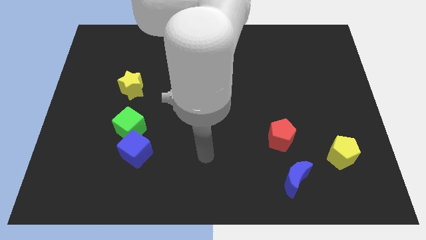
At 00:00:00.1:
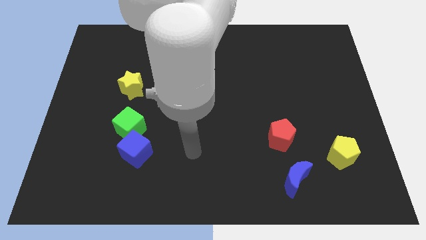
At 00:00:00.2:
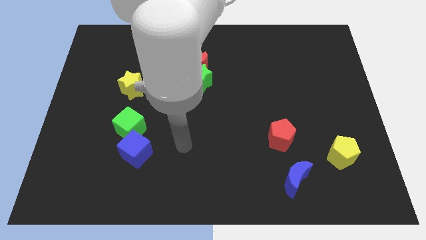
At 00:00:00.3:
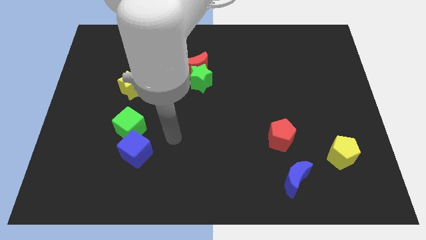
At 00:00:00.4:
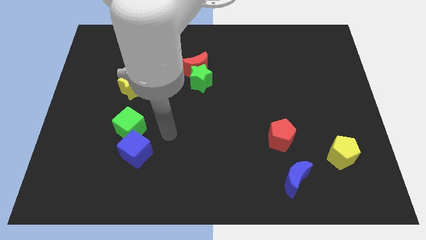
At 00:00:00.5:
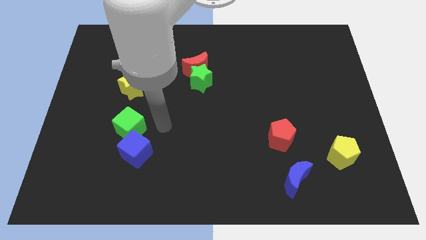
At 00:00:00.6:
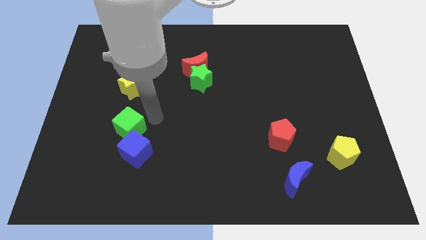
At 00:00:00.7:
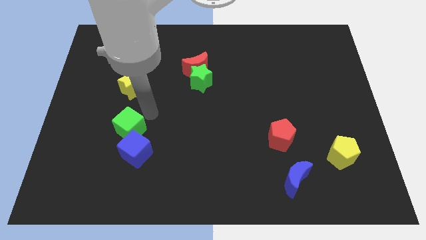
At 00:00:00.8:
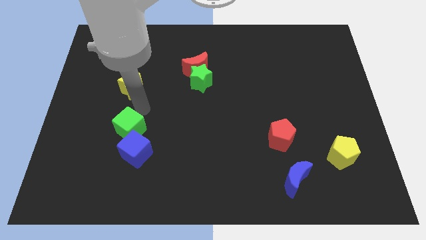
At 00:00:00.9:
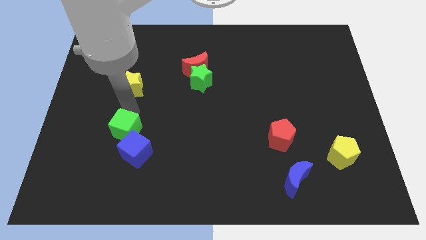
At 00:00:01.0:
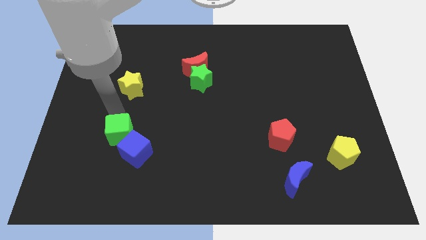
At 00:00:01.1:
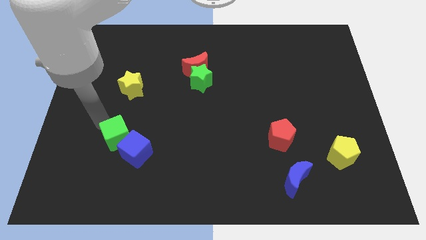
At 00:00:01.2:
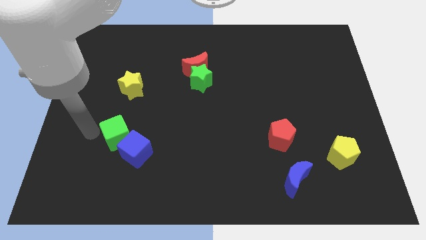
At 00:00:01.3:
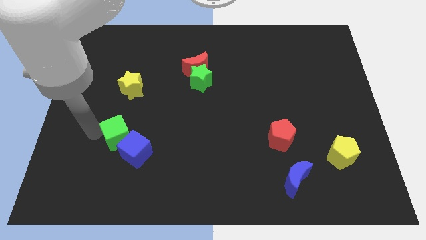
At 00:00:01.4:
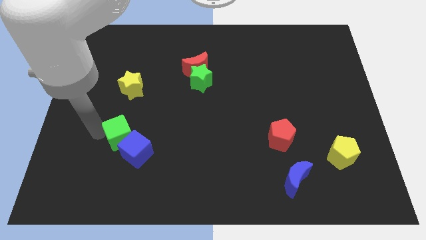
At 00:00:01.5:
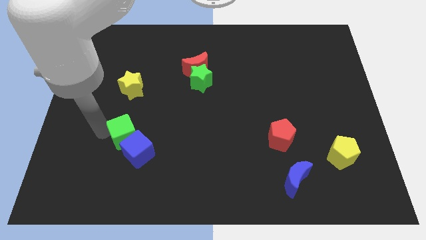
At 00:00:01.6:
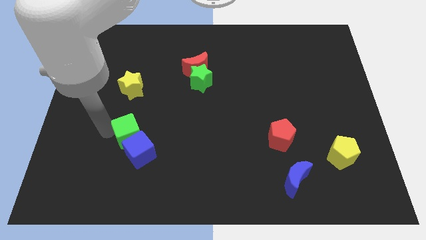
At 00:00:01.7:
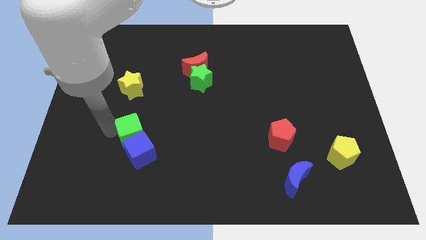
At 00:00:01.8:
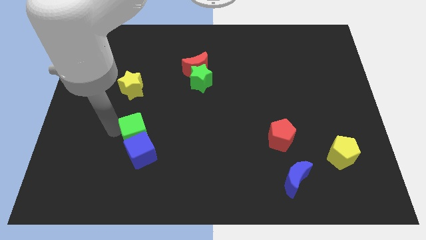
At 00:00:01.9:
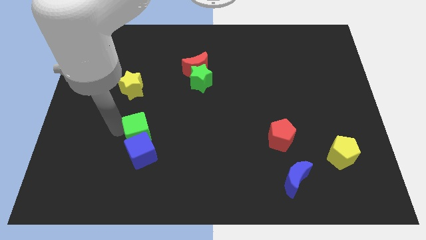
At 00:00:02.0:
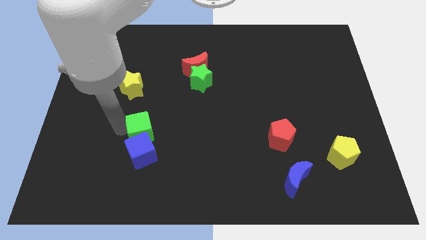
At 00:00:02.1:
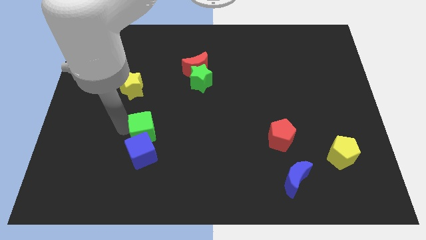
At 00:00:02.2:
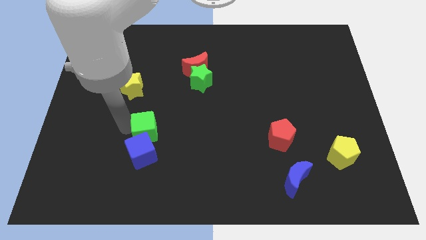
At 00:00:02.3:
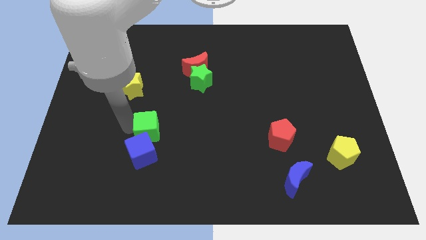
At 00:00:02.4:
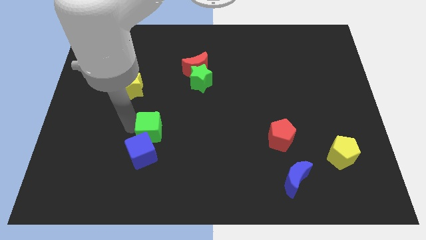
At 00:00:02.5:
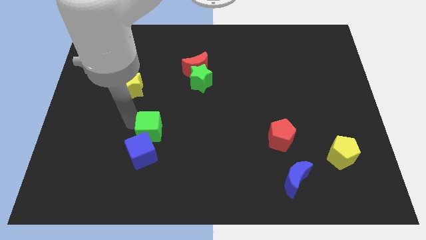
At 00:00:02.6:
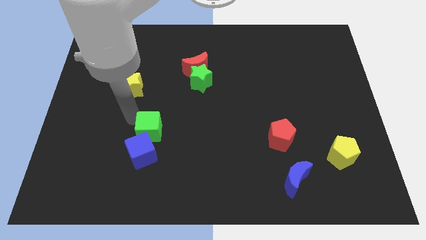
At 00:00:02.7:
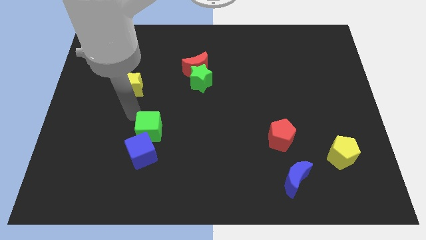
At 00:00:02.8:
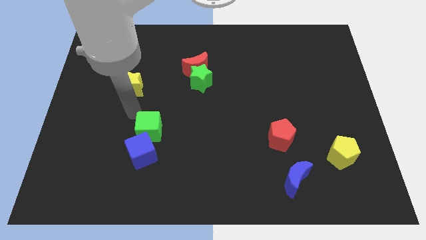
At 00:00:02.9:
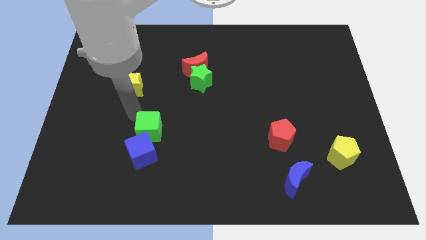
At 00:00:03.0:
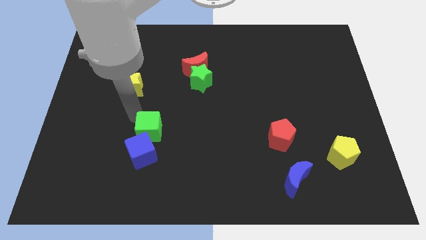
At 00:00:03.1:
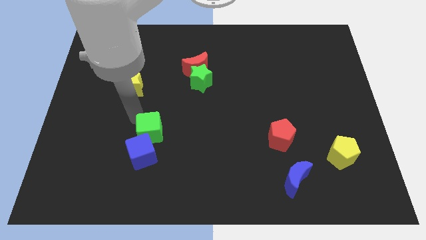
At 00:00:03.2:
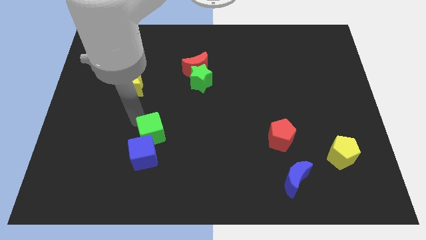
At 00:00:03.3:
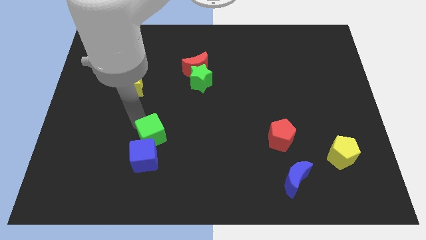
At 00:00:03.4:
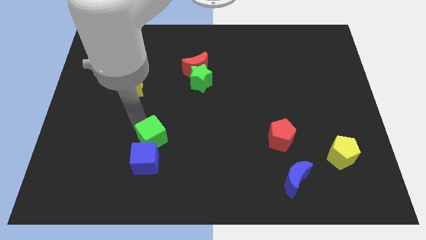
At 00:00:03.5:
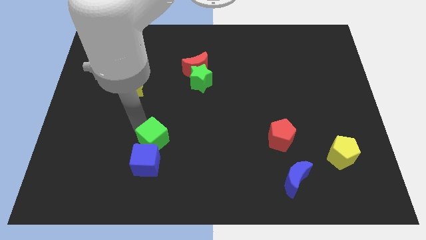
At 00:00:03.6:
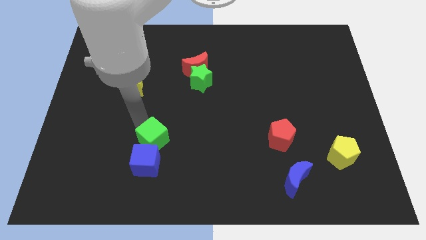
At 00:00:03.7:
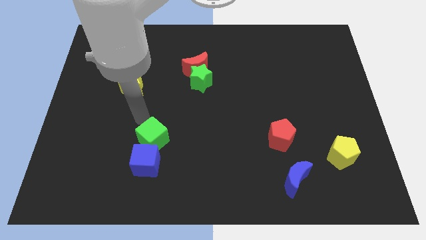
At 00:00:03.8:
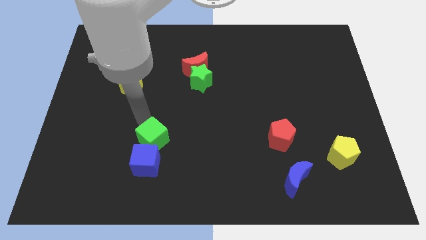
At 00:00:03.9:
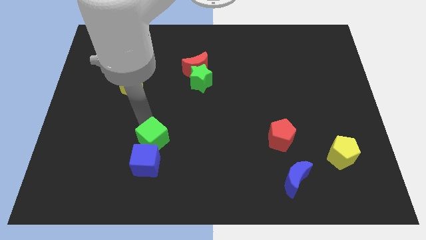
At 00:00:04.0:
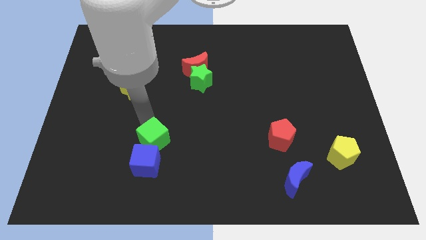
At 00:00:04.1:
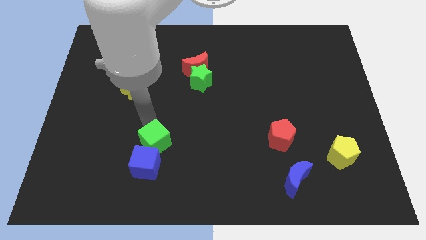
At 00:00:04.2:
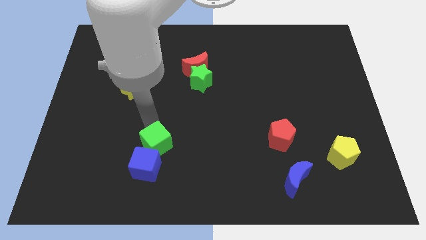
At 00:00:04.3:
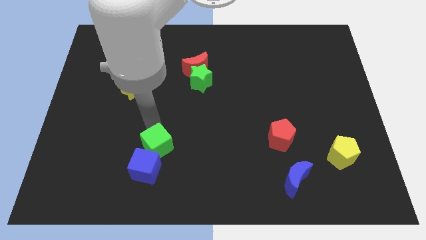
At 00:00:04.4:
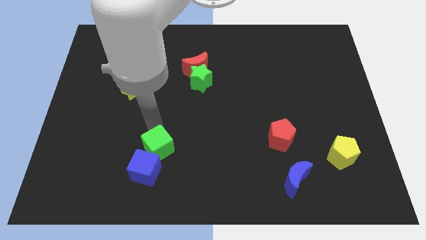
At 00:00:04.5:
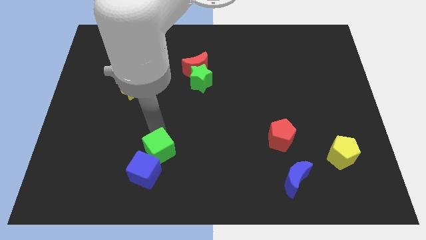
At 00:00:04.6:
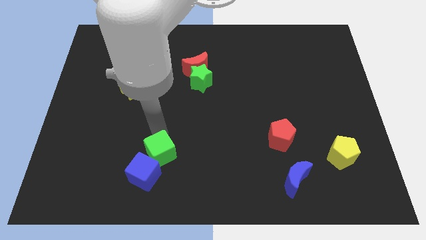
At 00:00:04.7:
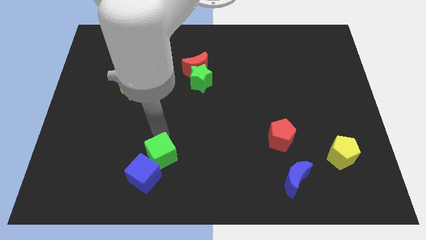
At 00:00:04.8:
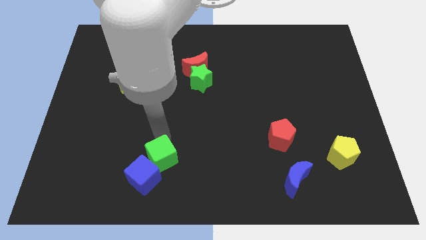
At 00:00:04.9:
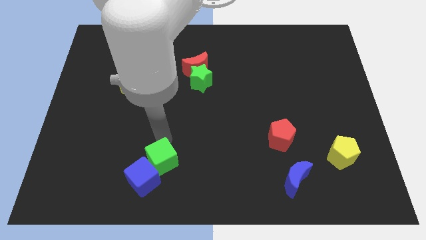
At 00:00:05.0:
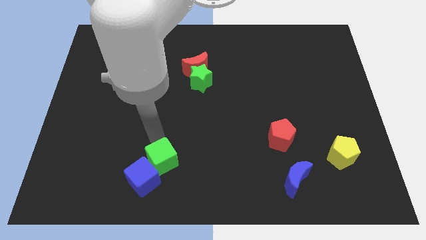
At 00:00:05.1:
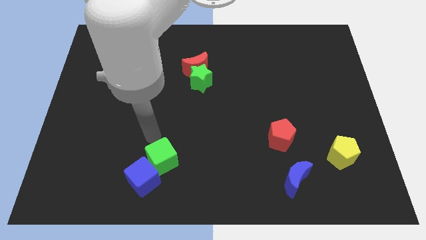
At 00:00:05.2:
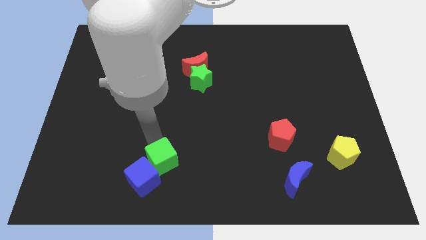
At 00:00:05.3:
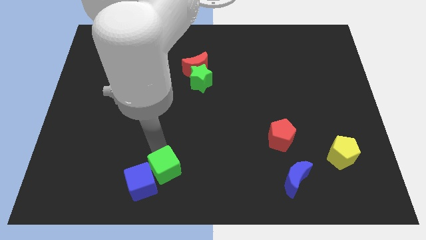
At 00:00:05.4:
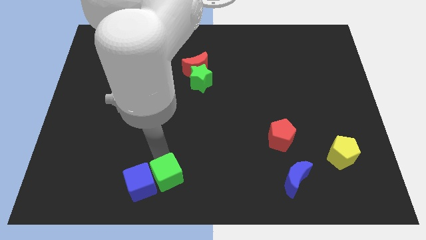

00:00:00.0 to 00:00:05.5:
push the green cube to the bottom side

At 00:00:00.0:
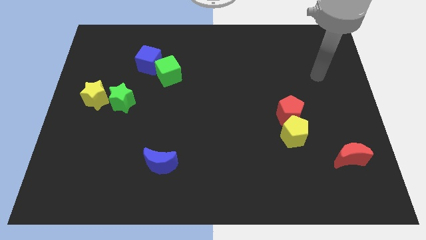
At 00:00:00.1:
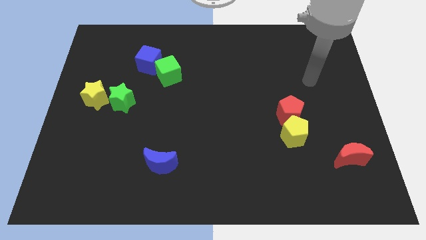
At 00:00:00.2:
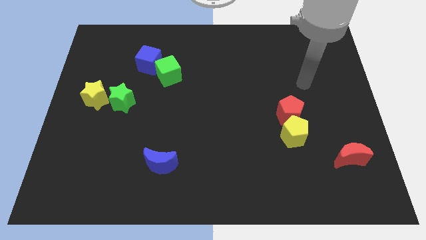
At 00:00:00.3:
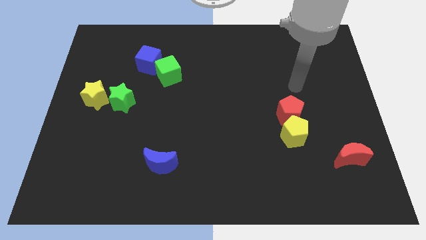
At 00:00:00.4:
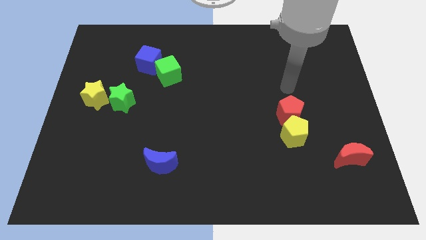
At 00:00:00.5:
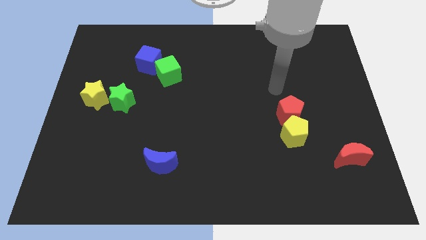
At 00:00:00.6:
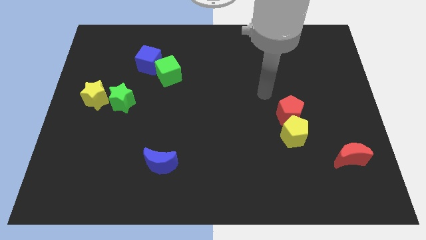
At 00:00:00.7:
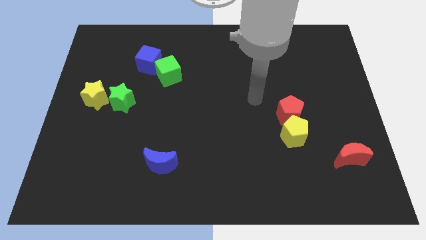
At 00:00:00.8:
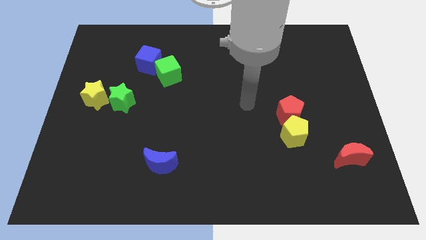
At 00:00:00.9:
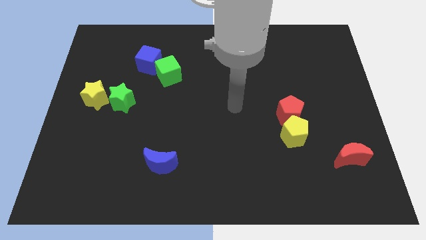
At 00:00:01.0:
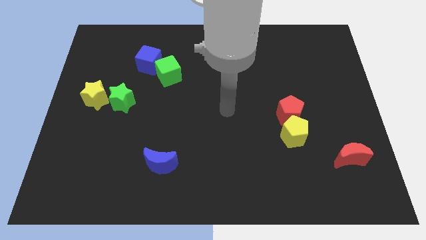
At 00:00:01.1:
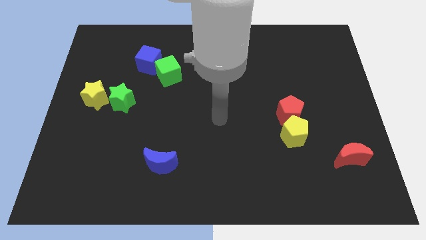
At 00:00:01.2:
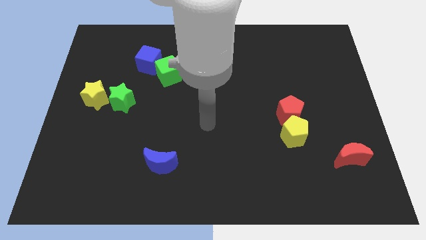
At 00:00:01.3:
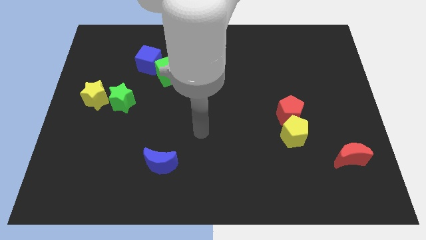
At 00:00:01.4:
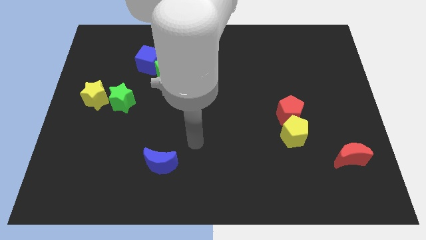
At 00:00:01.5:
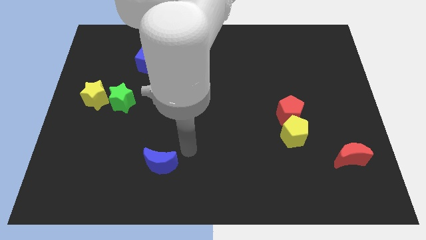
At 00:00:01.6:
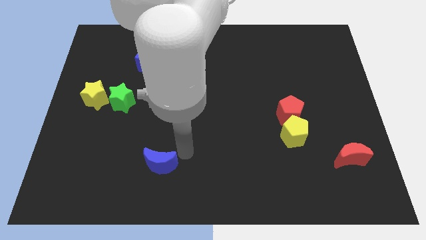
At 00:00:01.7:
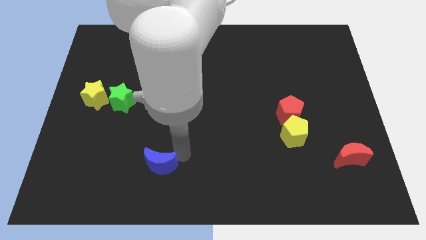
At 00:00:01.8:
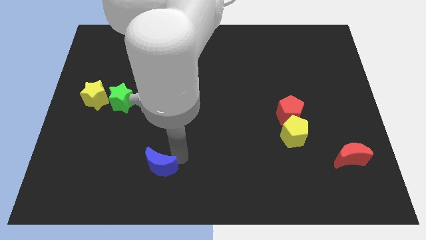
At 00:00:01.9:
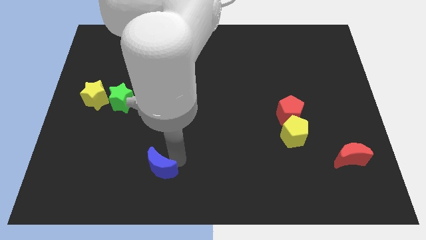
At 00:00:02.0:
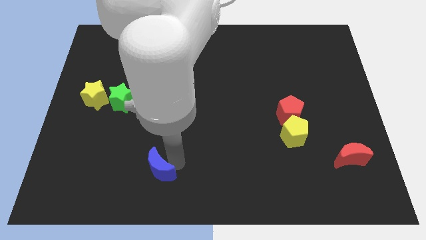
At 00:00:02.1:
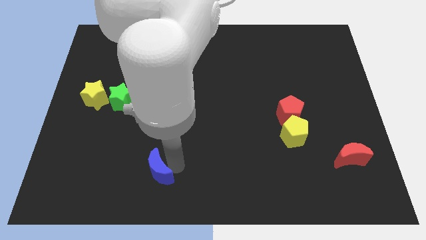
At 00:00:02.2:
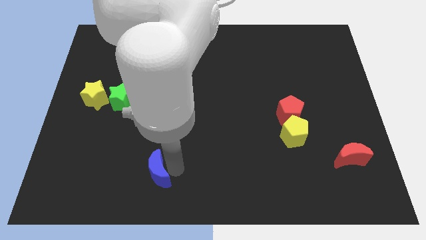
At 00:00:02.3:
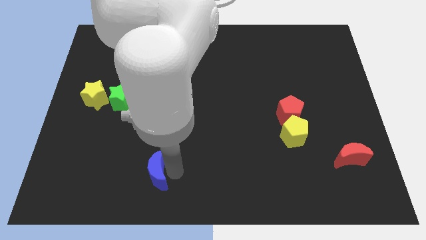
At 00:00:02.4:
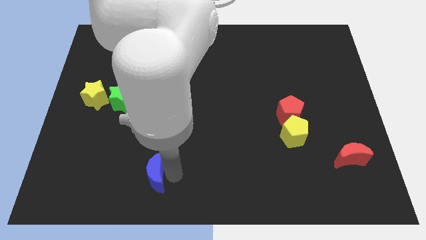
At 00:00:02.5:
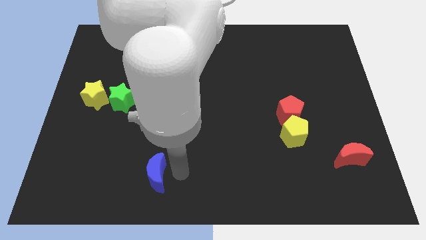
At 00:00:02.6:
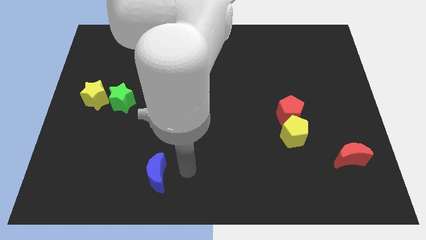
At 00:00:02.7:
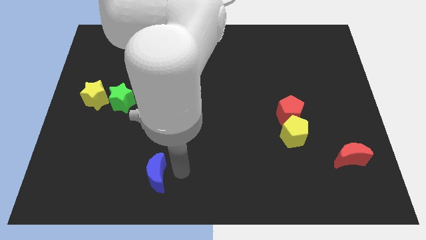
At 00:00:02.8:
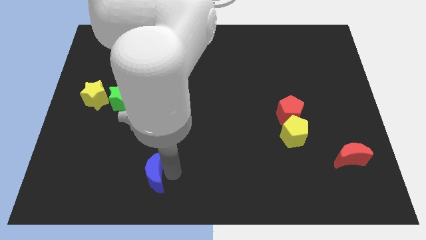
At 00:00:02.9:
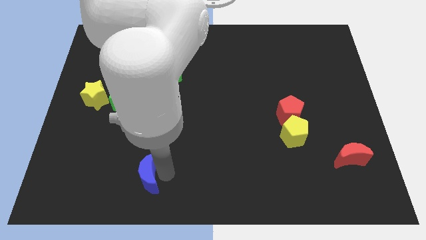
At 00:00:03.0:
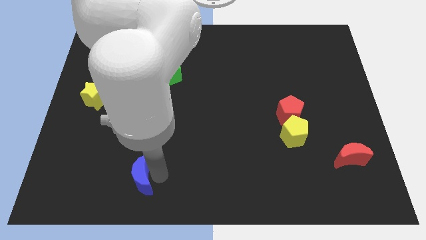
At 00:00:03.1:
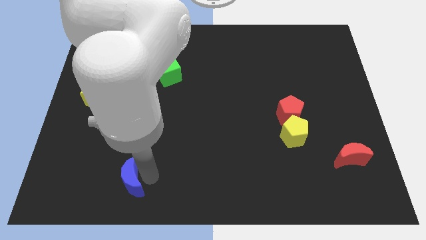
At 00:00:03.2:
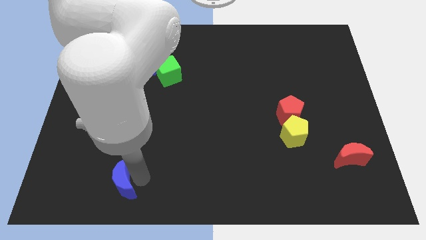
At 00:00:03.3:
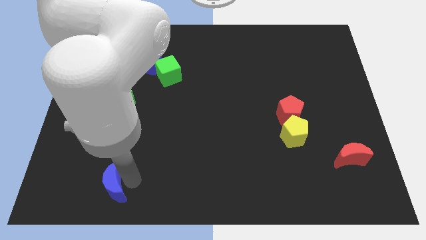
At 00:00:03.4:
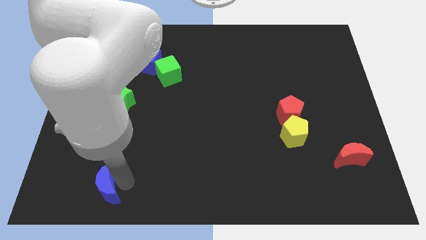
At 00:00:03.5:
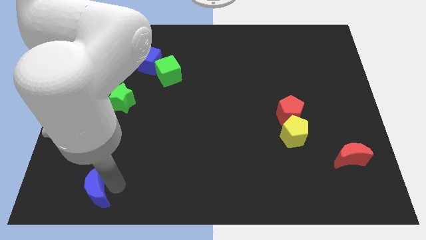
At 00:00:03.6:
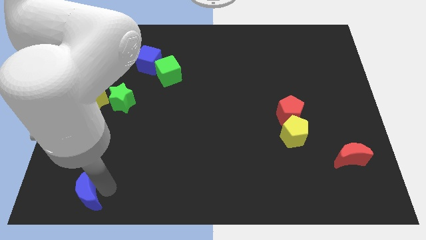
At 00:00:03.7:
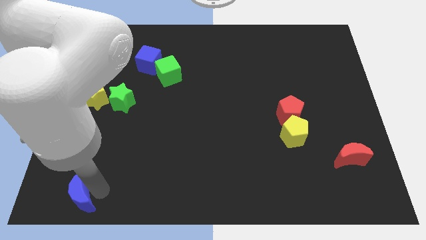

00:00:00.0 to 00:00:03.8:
move the blue moon to the lower left corner
